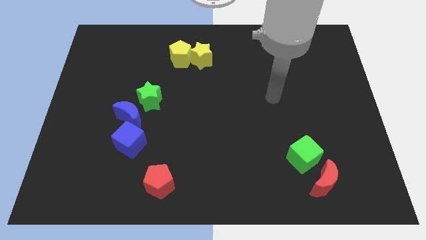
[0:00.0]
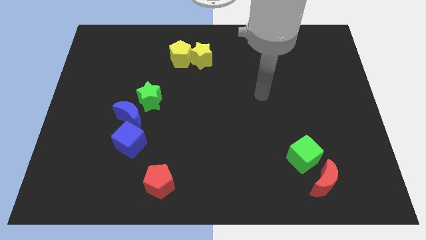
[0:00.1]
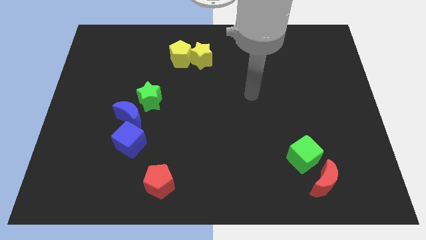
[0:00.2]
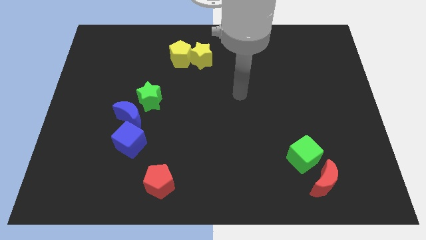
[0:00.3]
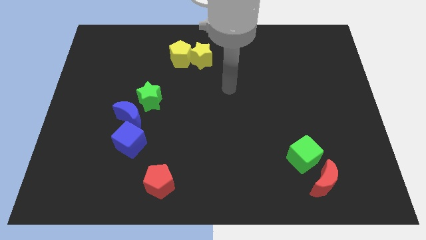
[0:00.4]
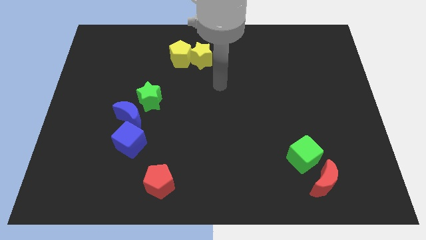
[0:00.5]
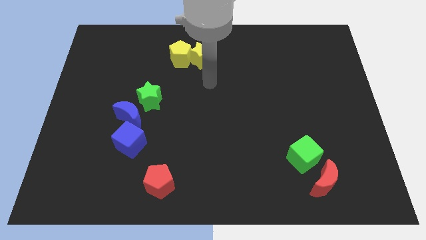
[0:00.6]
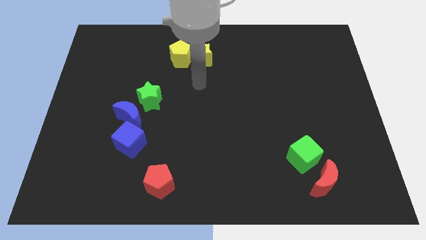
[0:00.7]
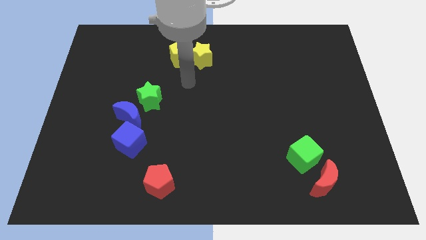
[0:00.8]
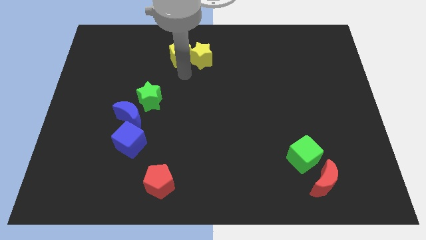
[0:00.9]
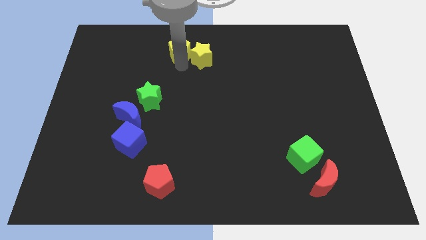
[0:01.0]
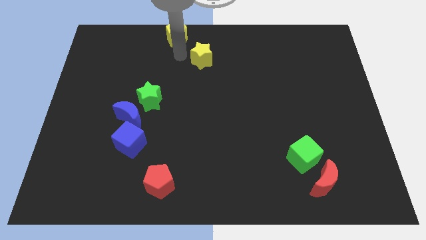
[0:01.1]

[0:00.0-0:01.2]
move the yellow star away from the yellow pentagon

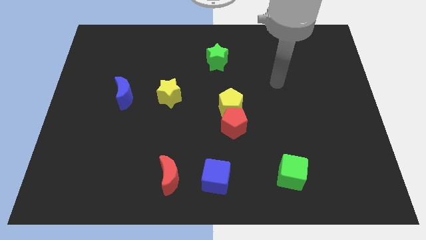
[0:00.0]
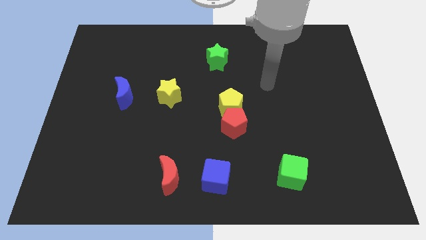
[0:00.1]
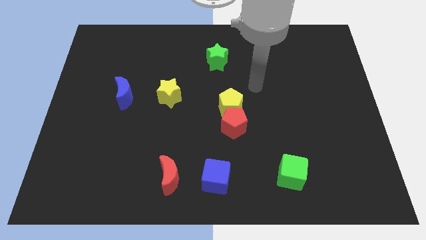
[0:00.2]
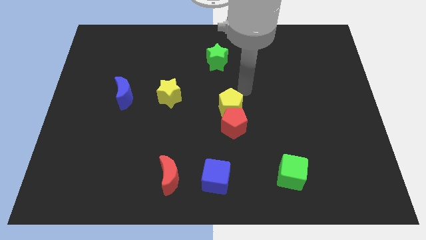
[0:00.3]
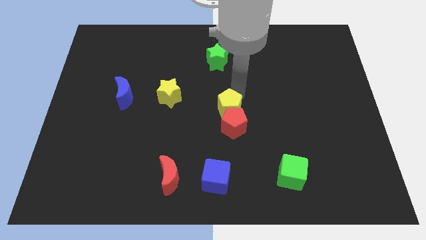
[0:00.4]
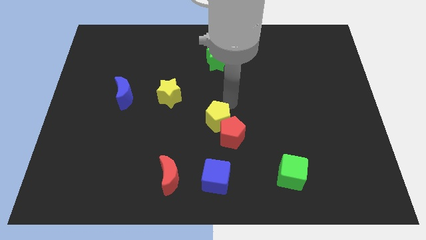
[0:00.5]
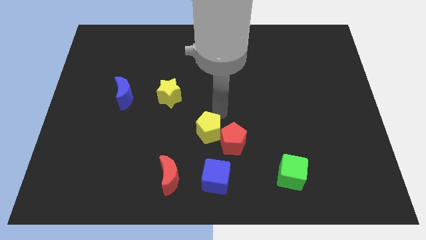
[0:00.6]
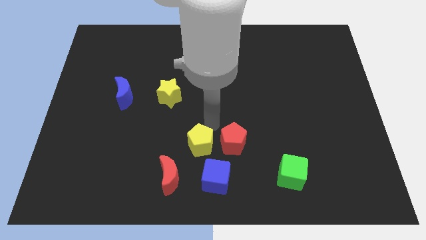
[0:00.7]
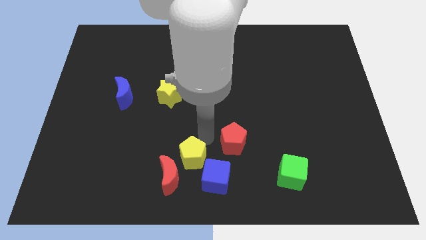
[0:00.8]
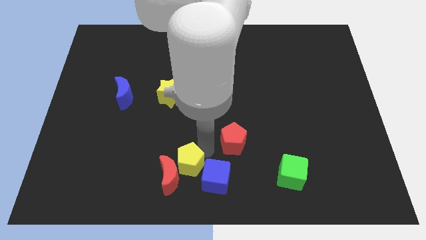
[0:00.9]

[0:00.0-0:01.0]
move the red pentagon away from the yellow pentagon

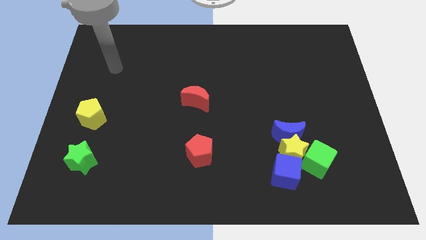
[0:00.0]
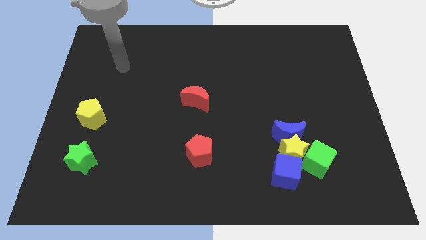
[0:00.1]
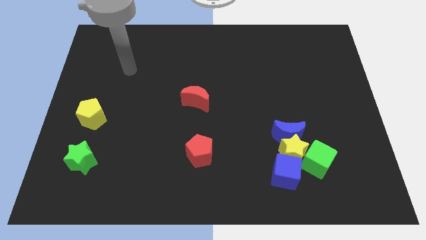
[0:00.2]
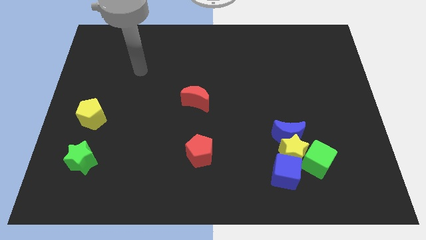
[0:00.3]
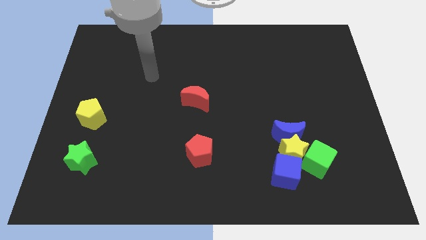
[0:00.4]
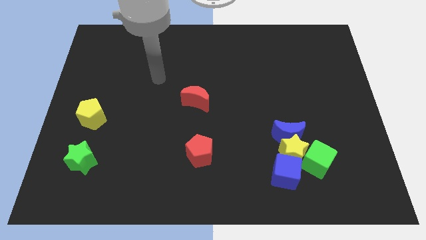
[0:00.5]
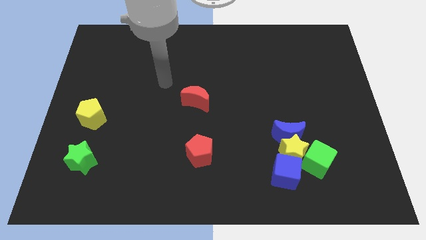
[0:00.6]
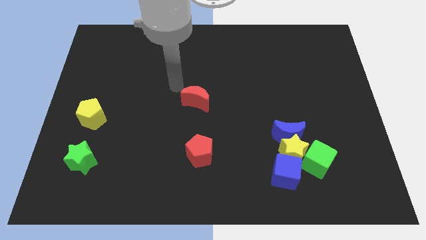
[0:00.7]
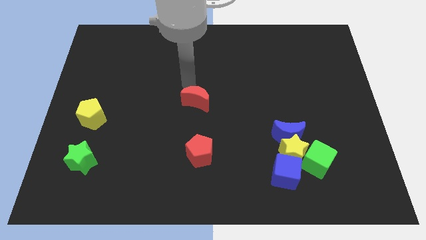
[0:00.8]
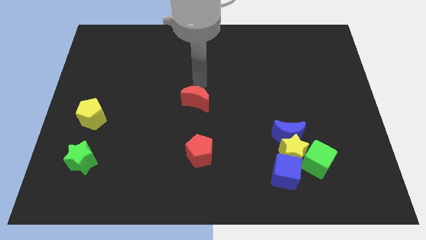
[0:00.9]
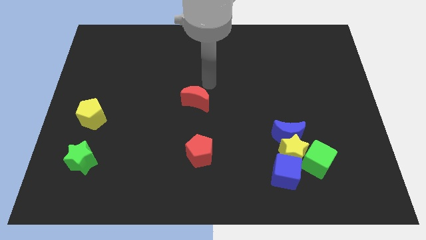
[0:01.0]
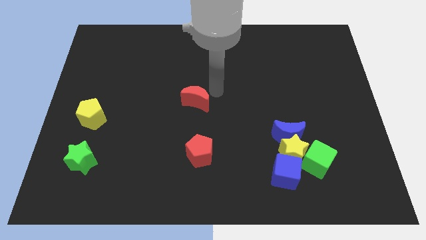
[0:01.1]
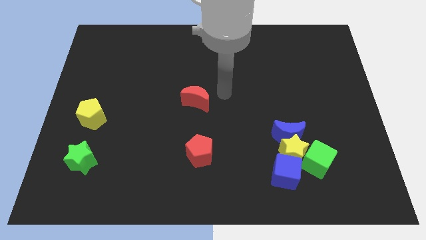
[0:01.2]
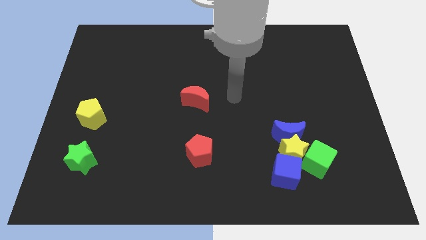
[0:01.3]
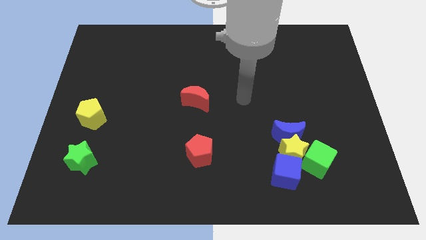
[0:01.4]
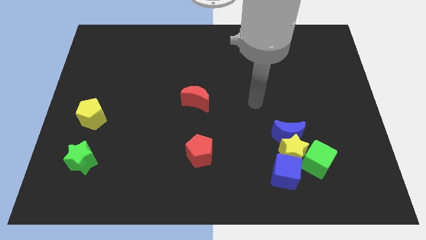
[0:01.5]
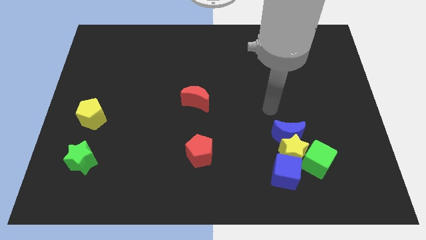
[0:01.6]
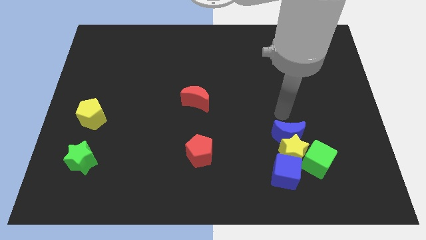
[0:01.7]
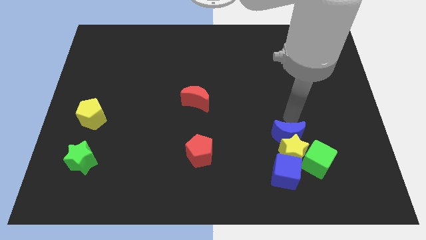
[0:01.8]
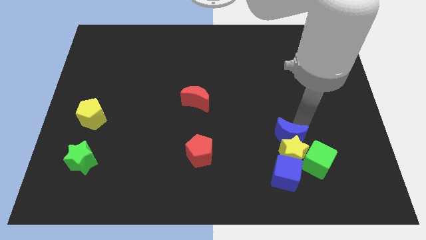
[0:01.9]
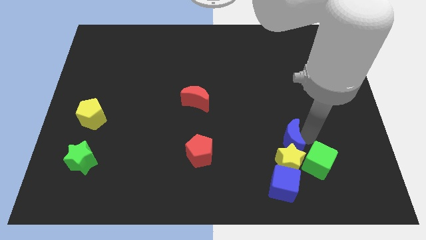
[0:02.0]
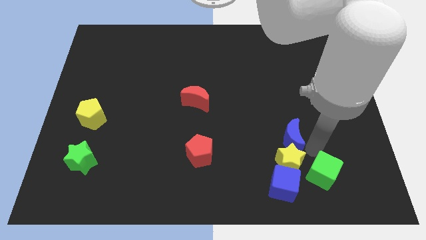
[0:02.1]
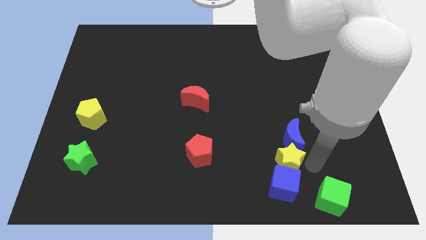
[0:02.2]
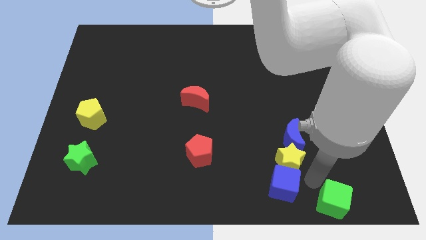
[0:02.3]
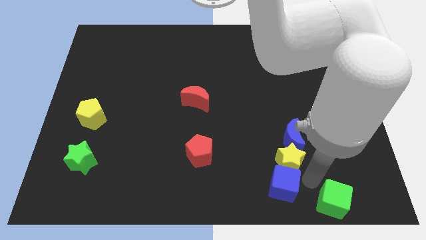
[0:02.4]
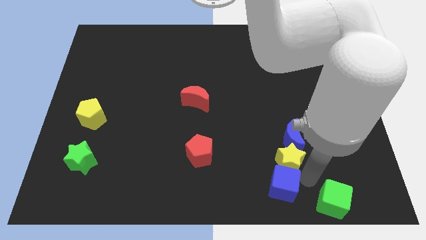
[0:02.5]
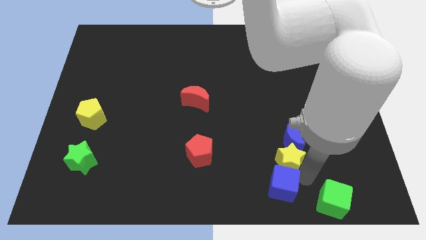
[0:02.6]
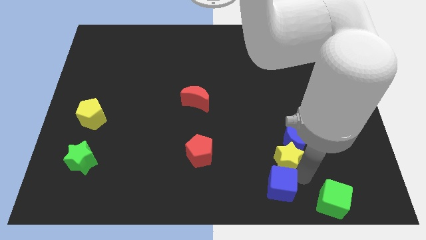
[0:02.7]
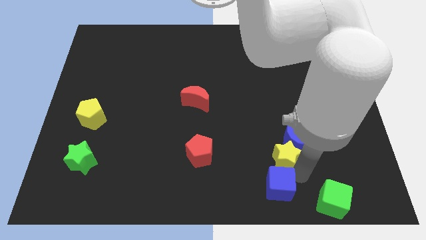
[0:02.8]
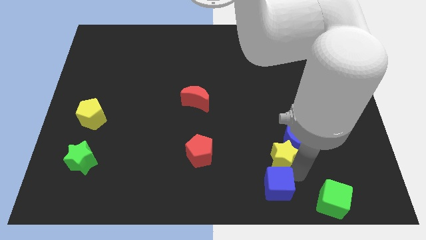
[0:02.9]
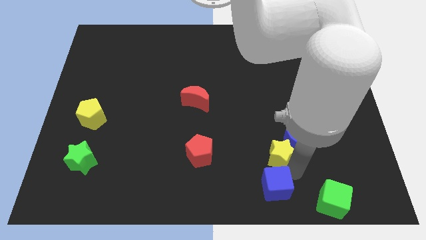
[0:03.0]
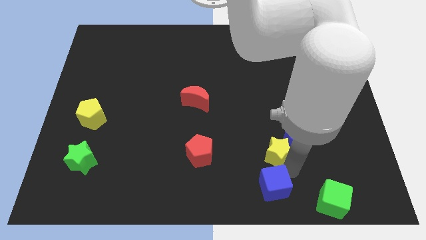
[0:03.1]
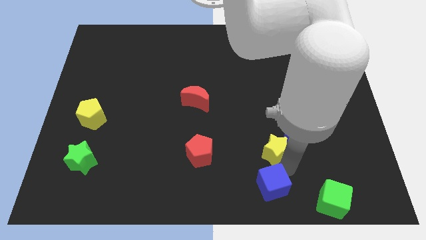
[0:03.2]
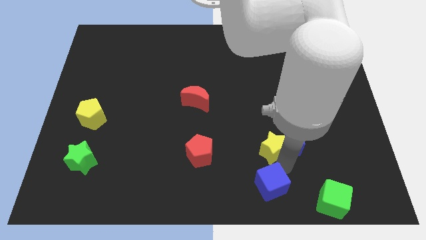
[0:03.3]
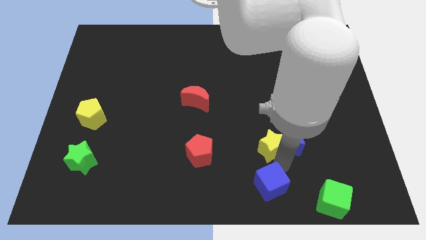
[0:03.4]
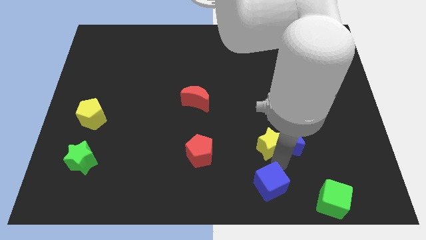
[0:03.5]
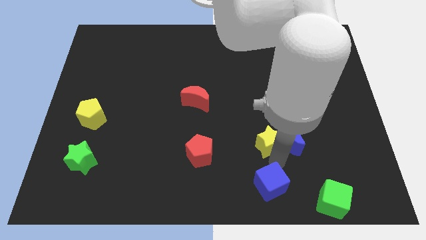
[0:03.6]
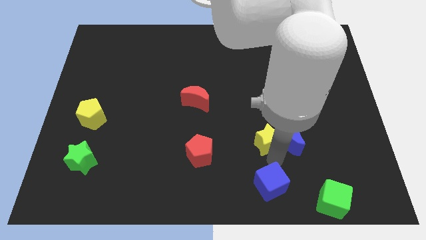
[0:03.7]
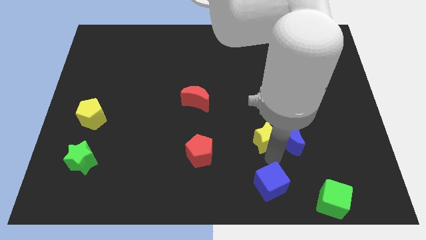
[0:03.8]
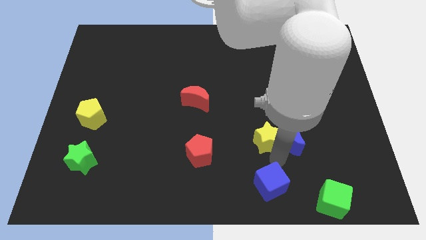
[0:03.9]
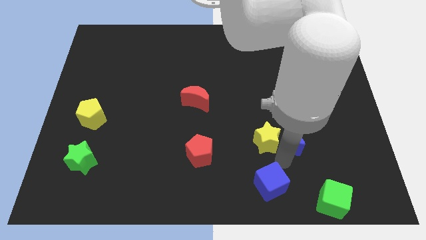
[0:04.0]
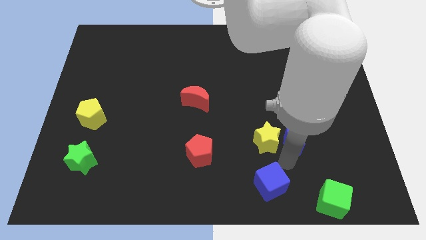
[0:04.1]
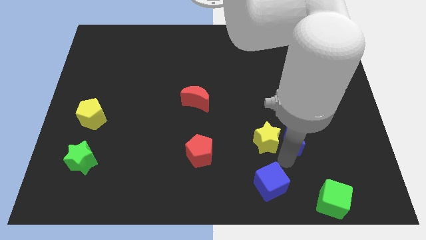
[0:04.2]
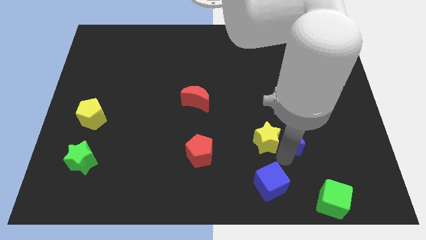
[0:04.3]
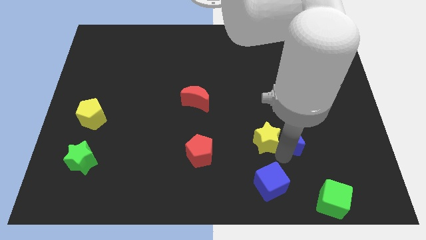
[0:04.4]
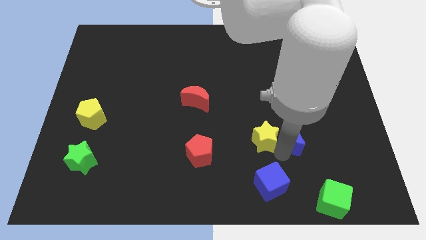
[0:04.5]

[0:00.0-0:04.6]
separate the yellow star from the blue moon, green cube, and blue cube

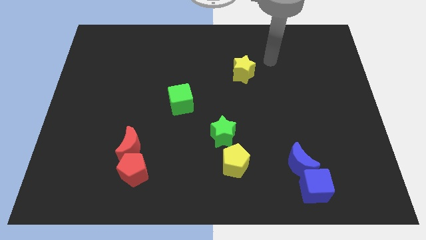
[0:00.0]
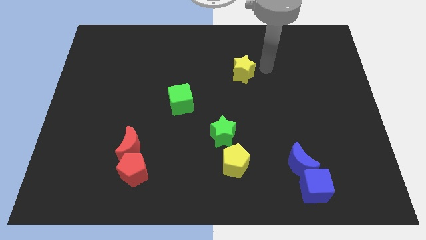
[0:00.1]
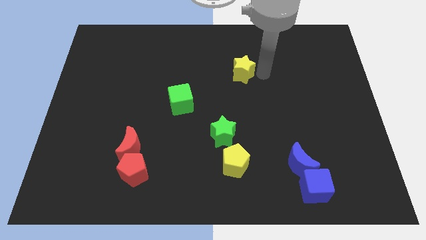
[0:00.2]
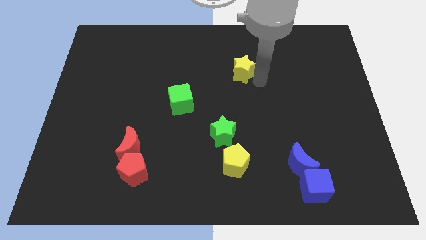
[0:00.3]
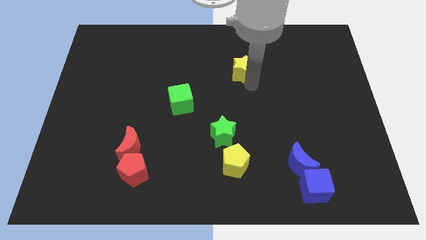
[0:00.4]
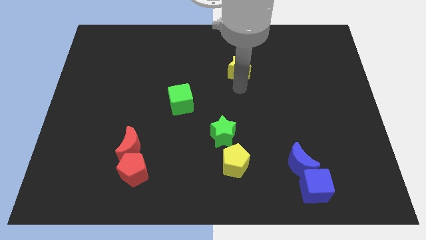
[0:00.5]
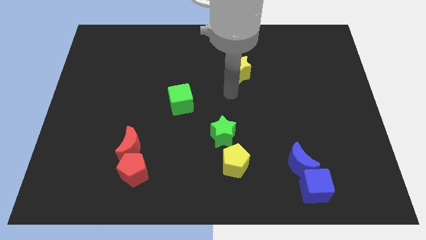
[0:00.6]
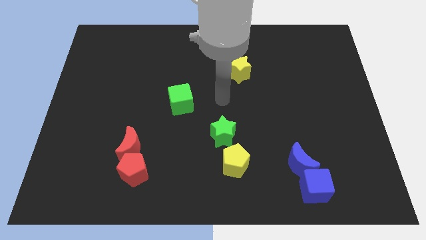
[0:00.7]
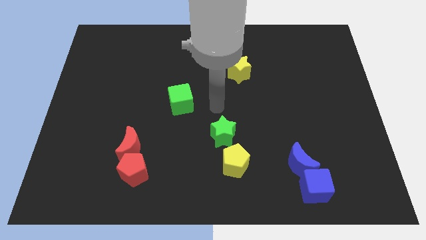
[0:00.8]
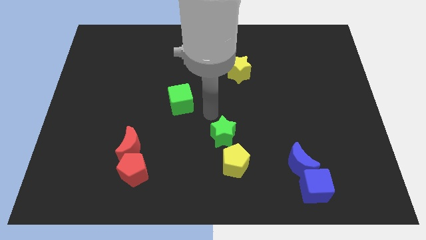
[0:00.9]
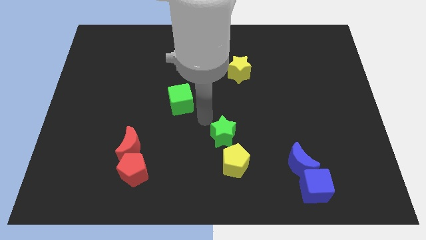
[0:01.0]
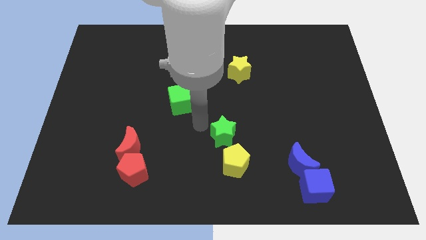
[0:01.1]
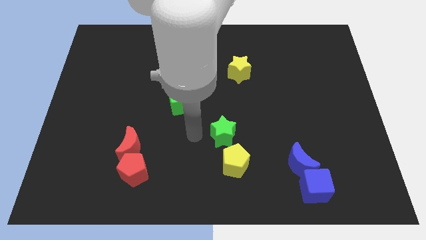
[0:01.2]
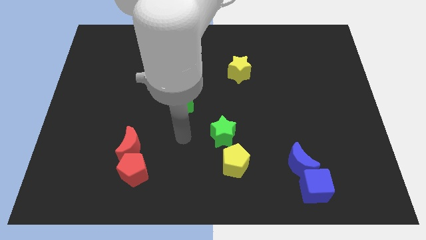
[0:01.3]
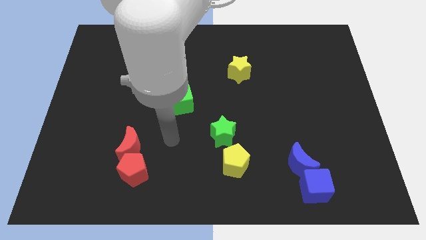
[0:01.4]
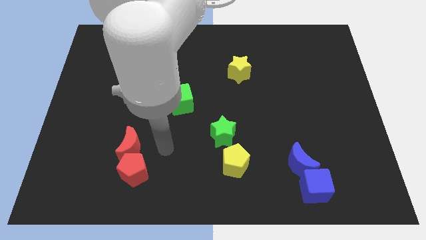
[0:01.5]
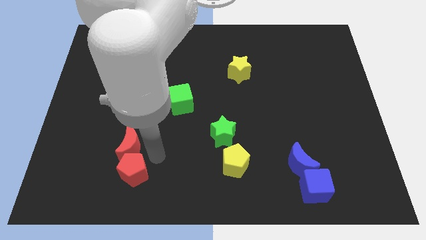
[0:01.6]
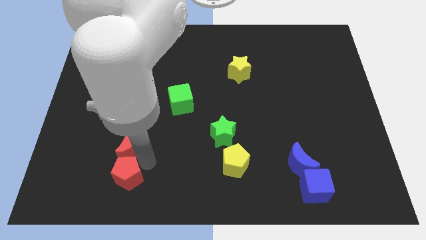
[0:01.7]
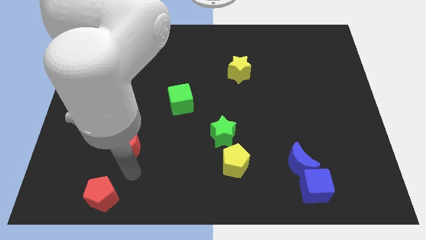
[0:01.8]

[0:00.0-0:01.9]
move the red moon away from the red pentagon

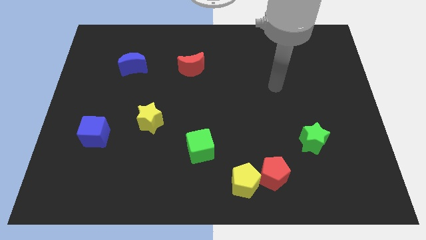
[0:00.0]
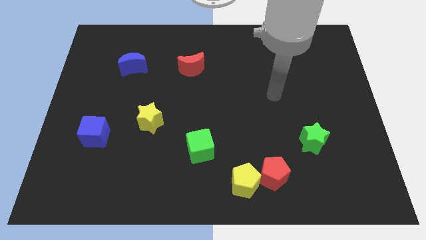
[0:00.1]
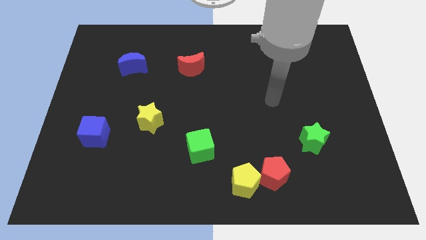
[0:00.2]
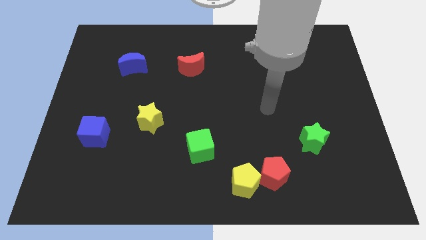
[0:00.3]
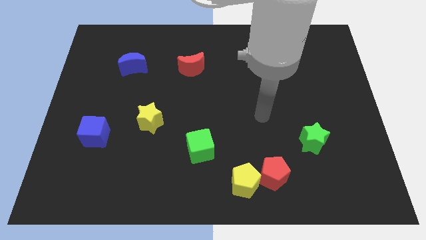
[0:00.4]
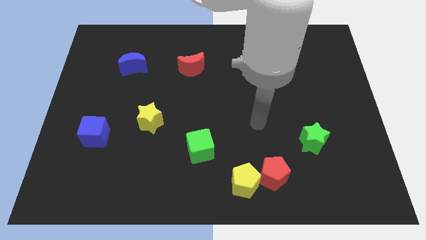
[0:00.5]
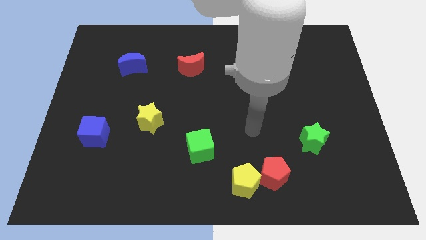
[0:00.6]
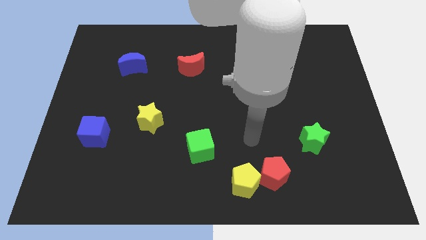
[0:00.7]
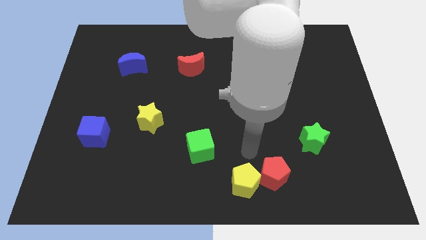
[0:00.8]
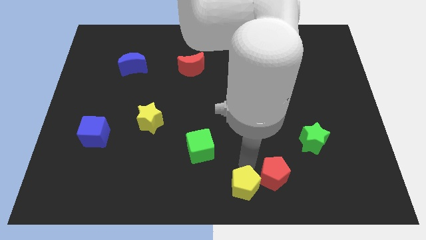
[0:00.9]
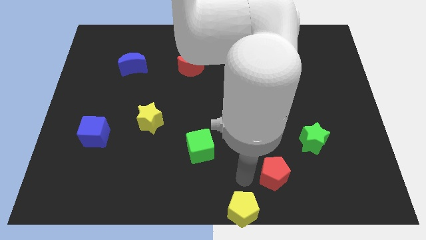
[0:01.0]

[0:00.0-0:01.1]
separate the red pentagon from the yellow pentagon
